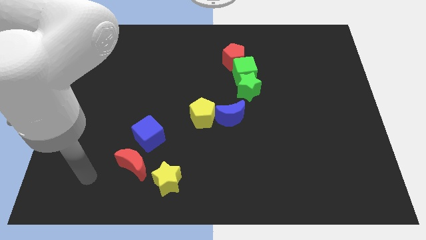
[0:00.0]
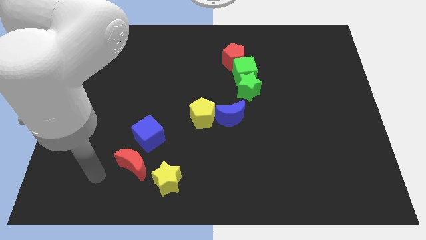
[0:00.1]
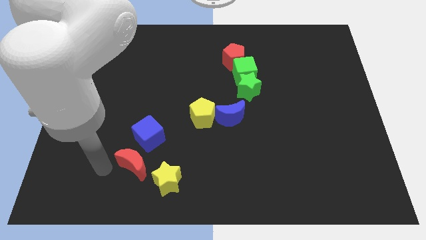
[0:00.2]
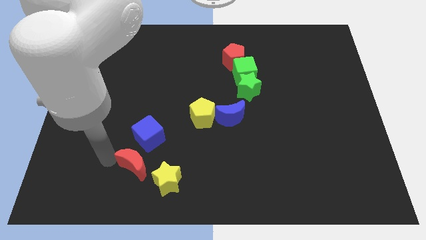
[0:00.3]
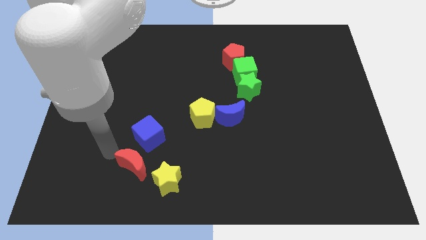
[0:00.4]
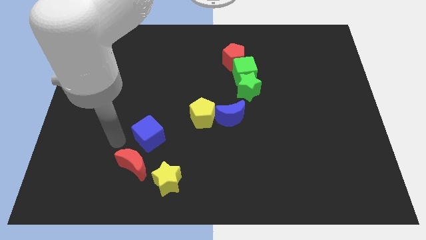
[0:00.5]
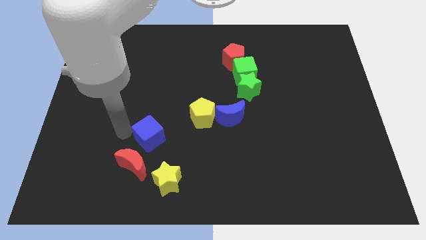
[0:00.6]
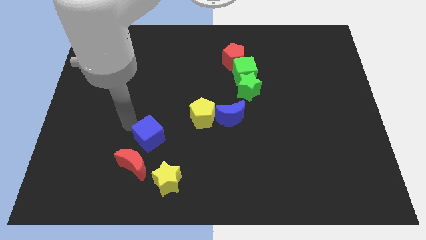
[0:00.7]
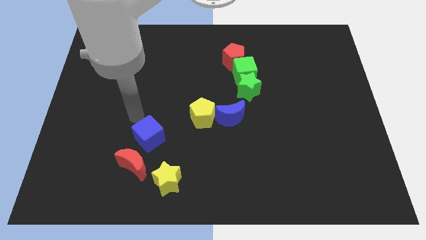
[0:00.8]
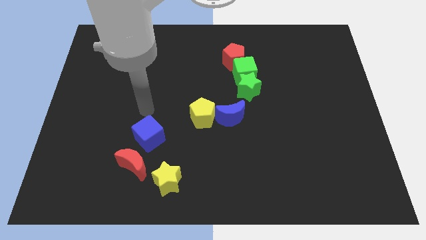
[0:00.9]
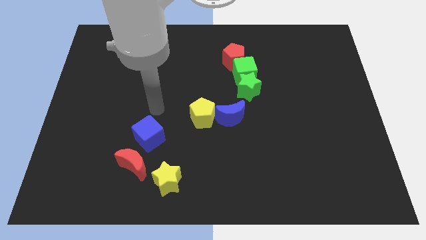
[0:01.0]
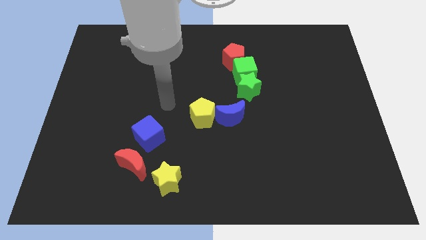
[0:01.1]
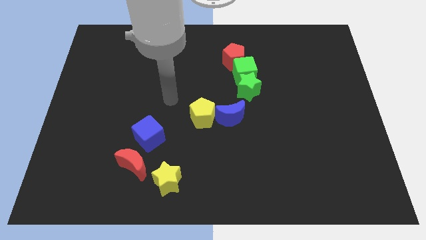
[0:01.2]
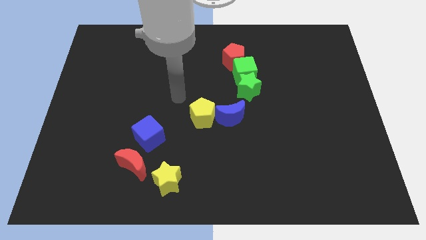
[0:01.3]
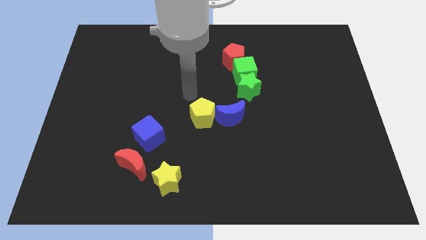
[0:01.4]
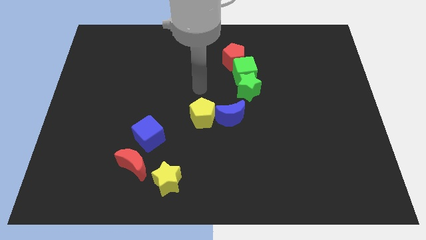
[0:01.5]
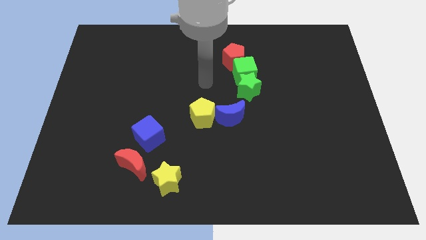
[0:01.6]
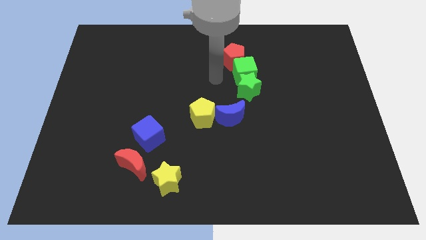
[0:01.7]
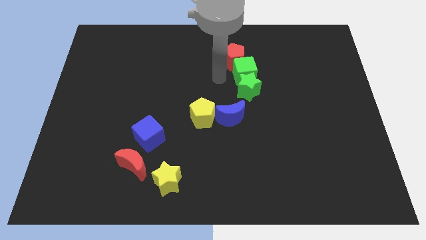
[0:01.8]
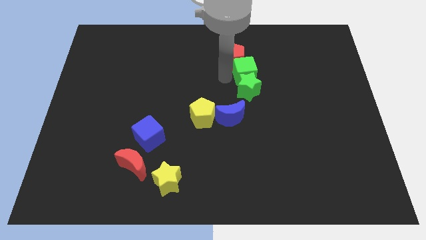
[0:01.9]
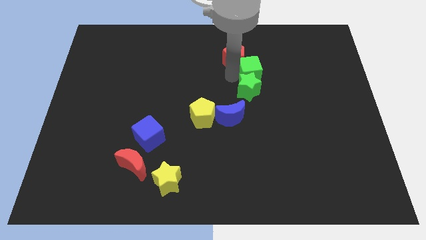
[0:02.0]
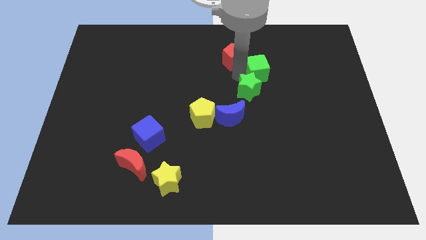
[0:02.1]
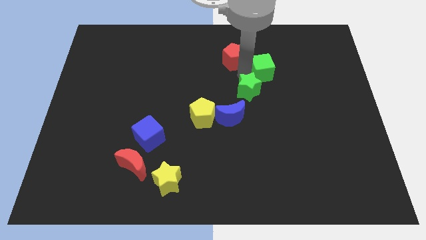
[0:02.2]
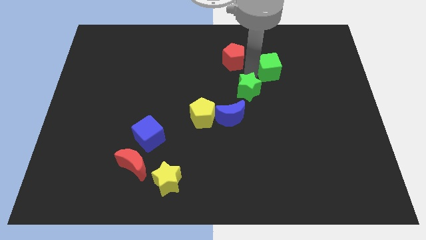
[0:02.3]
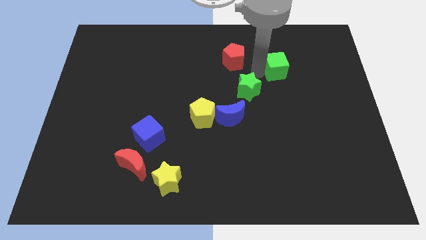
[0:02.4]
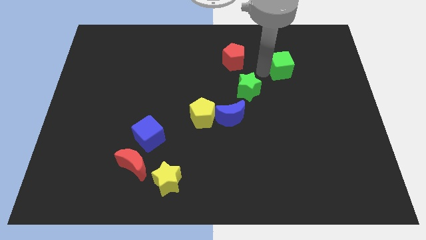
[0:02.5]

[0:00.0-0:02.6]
separate the green cube from the green star and red pentagon

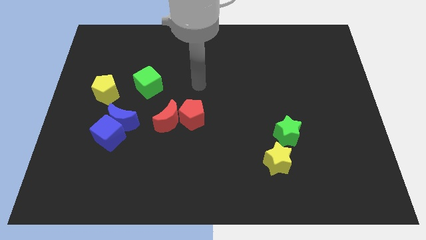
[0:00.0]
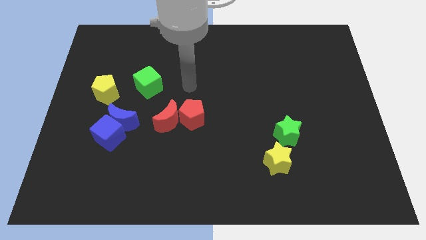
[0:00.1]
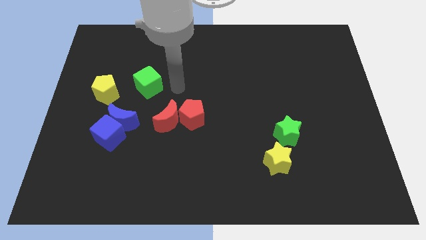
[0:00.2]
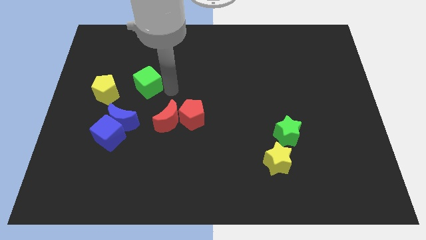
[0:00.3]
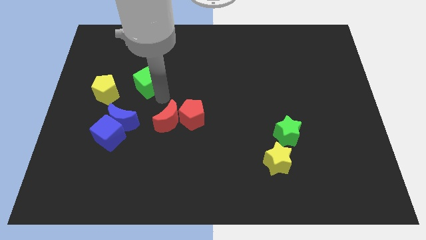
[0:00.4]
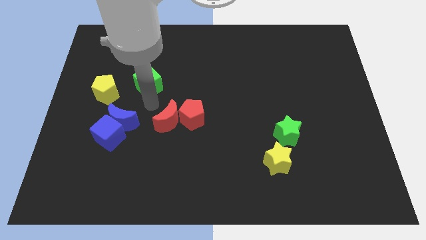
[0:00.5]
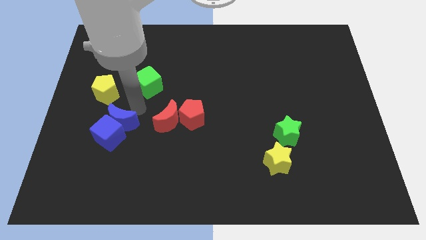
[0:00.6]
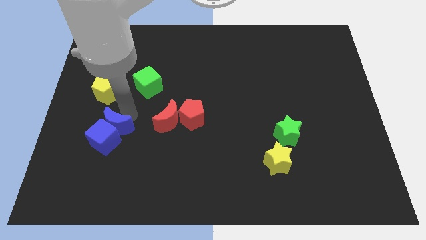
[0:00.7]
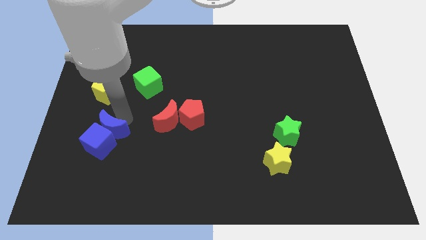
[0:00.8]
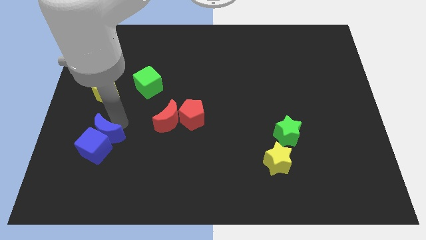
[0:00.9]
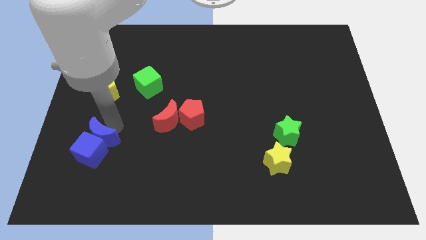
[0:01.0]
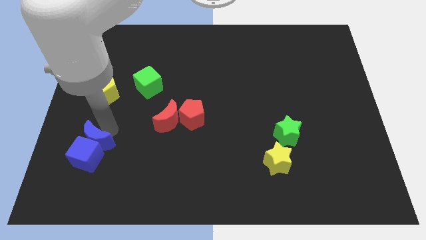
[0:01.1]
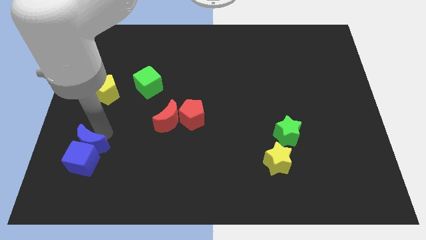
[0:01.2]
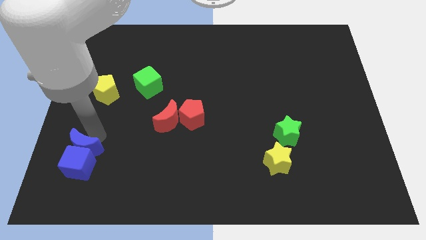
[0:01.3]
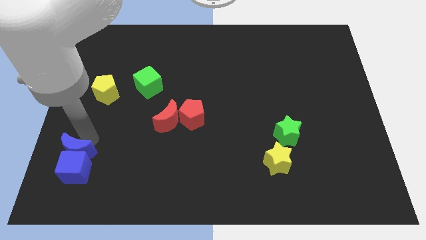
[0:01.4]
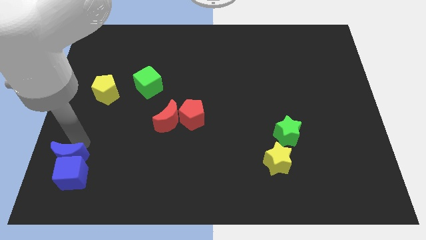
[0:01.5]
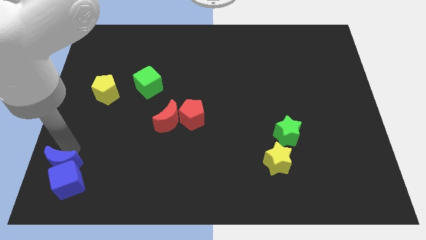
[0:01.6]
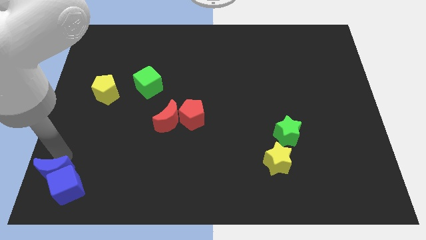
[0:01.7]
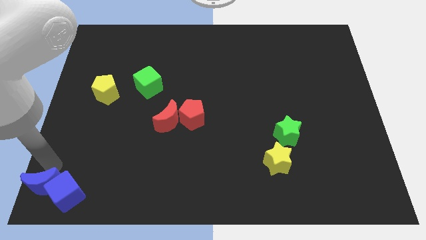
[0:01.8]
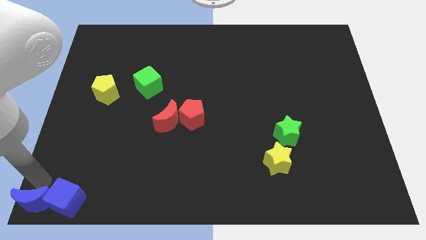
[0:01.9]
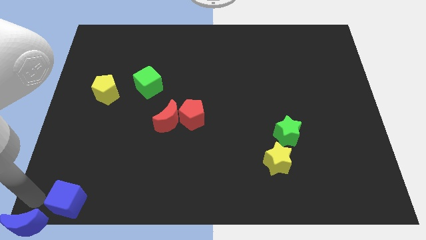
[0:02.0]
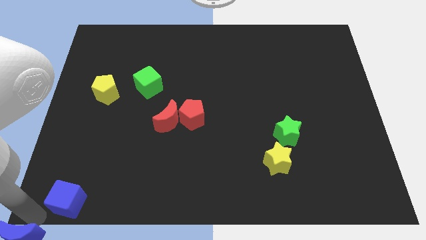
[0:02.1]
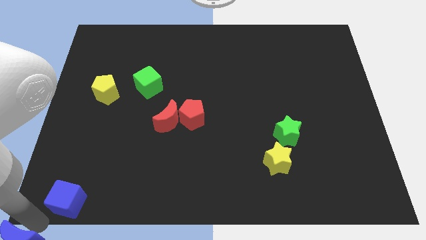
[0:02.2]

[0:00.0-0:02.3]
separate the blue cube from the blue moon

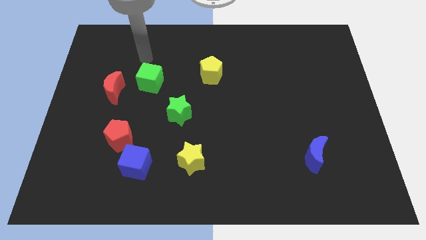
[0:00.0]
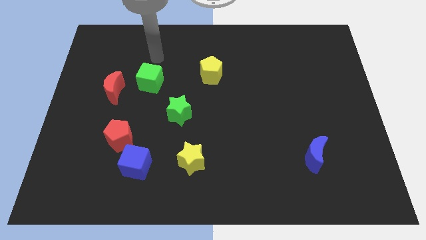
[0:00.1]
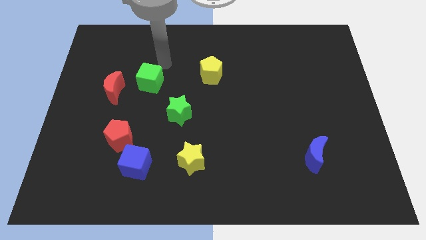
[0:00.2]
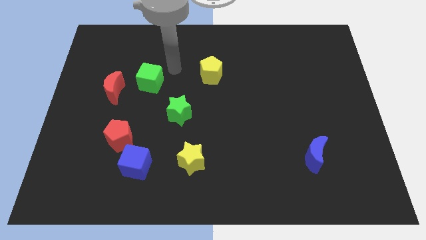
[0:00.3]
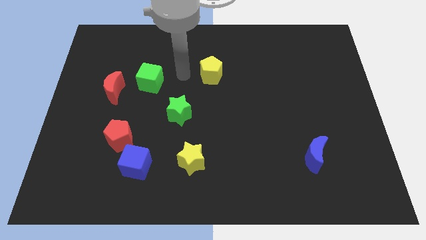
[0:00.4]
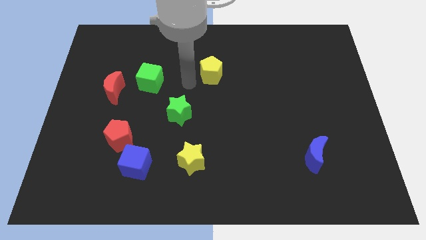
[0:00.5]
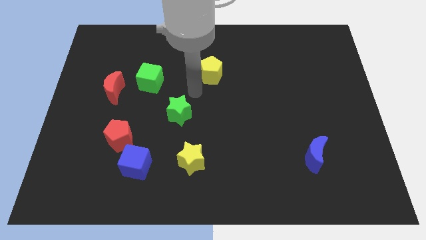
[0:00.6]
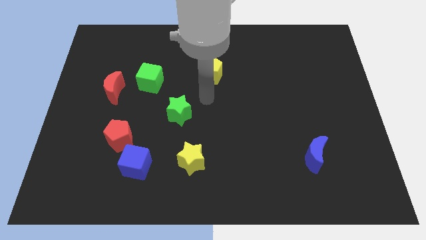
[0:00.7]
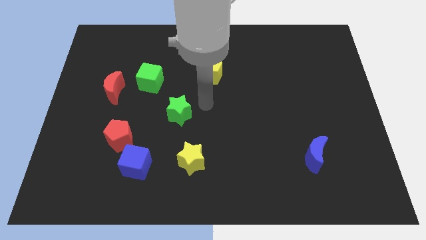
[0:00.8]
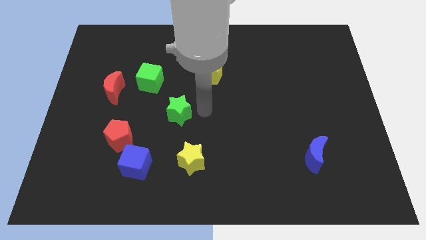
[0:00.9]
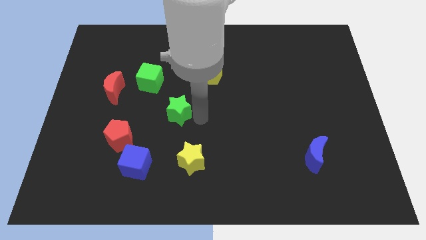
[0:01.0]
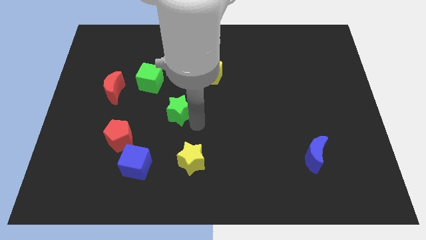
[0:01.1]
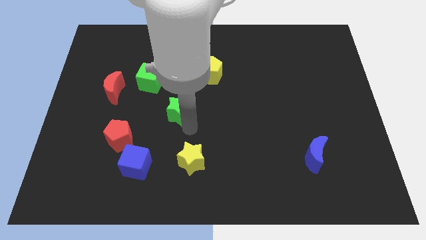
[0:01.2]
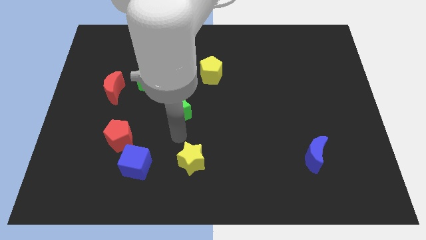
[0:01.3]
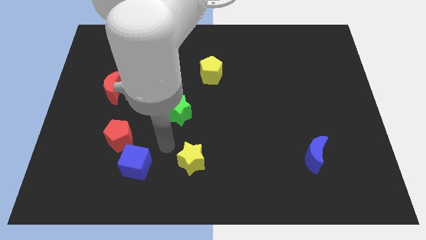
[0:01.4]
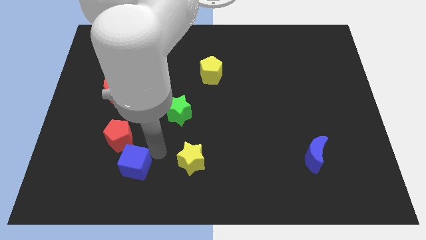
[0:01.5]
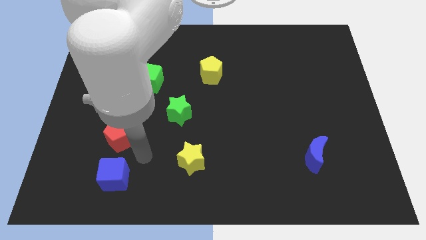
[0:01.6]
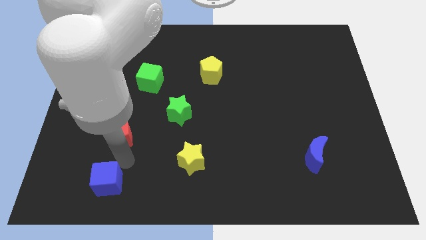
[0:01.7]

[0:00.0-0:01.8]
separate the red pentagon from the blue cube

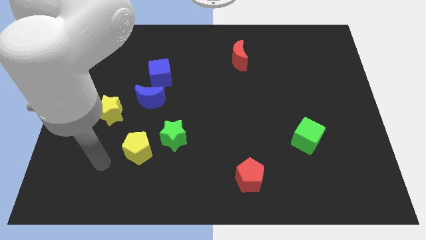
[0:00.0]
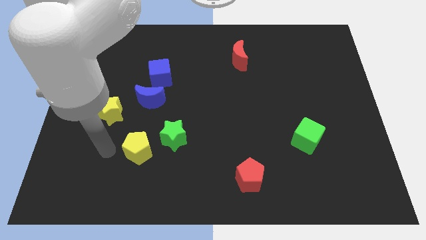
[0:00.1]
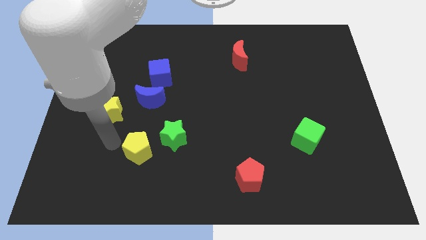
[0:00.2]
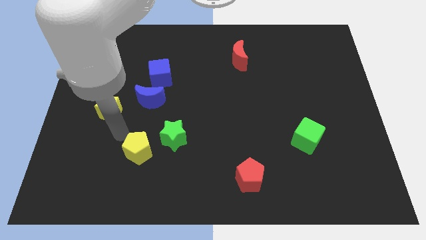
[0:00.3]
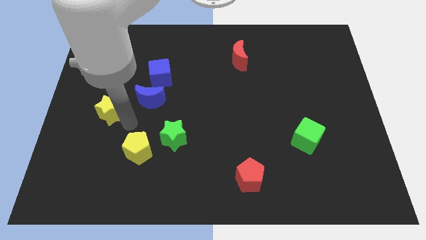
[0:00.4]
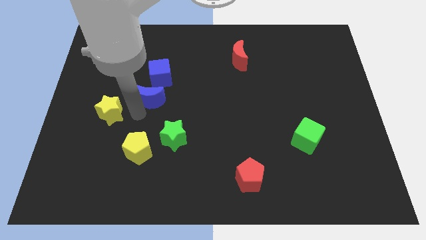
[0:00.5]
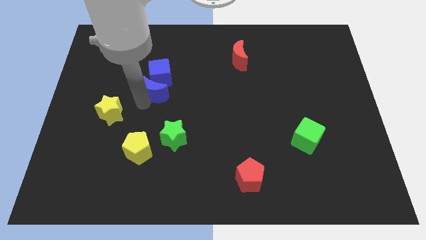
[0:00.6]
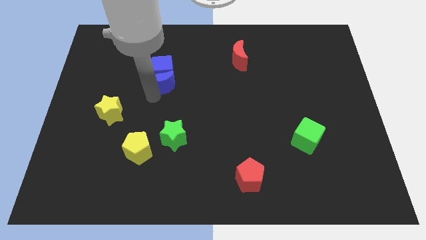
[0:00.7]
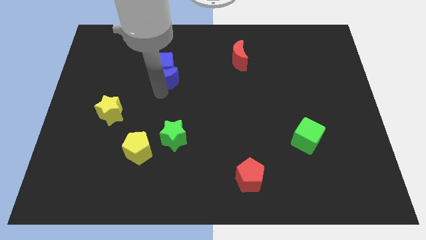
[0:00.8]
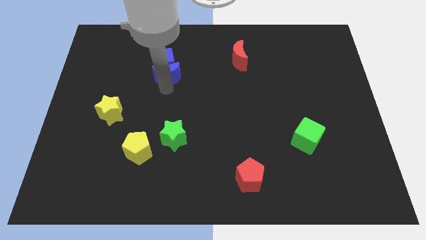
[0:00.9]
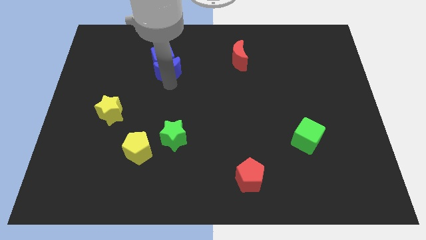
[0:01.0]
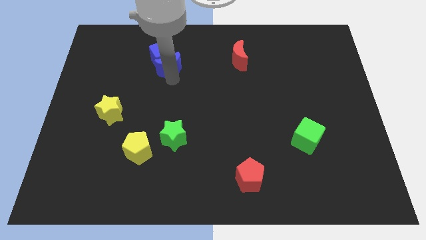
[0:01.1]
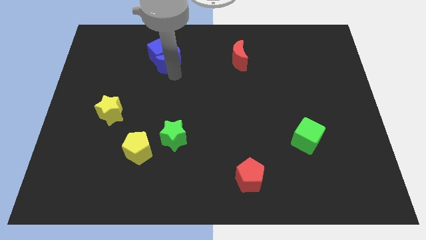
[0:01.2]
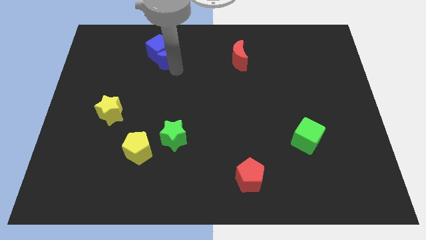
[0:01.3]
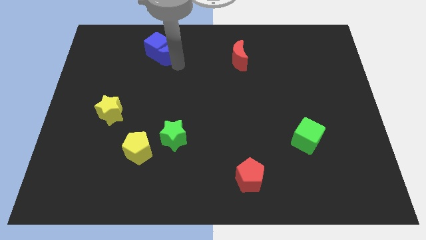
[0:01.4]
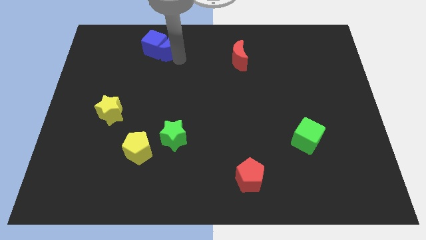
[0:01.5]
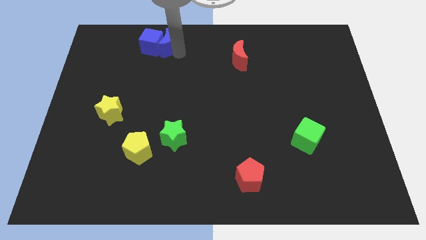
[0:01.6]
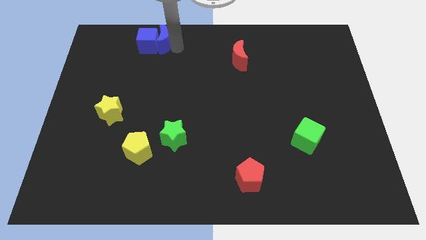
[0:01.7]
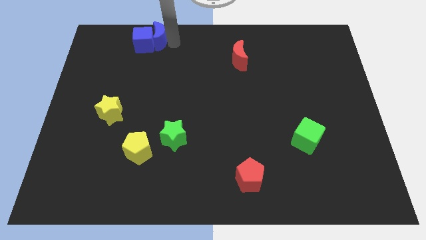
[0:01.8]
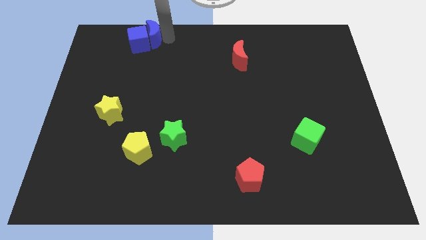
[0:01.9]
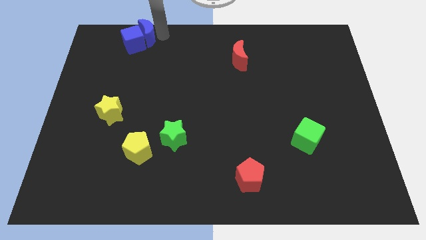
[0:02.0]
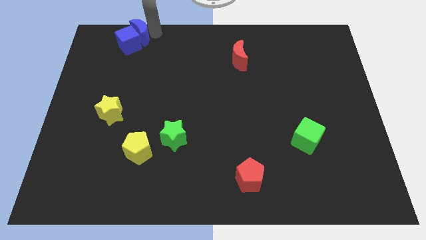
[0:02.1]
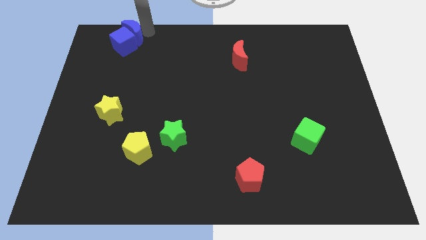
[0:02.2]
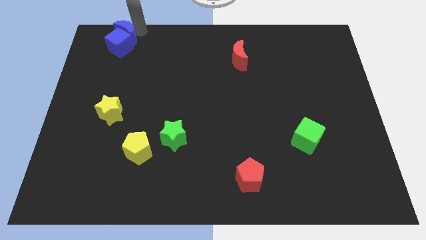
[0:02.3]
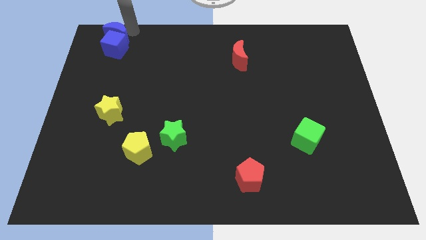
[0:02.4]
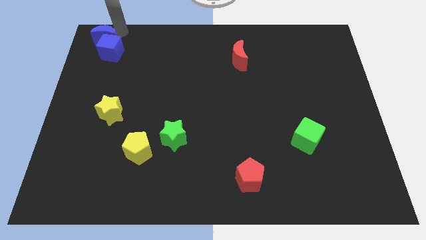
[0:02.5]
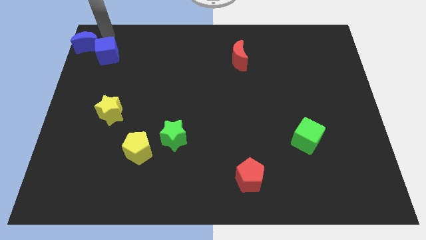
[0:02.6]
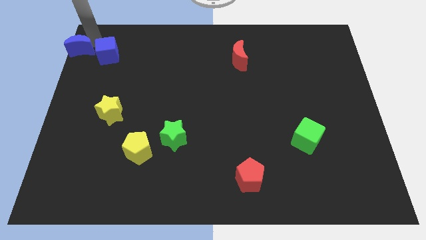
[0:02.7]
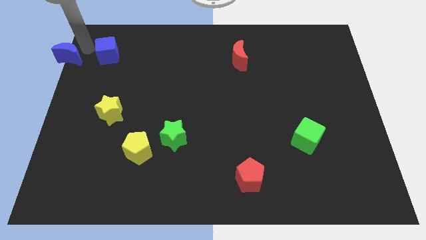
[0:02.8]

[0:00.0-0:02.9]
move the blue cube away from the blue moon

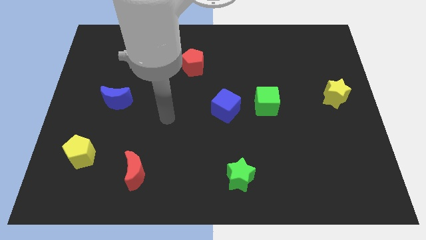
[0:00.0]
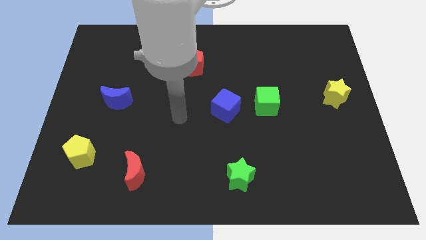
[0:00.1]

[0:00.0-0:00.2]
move the blue cube away from the green cube
